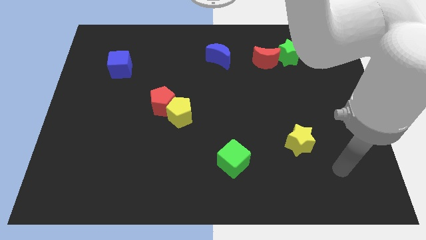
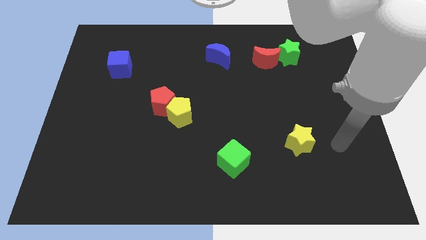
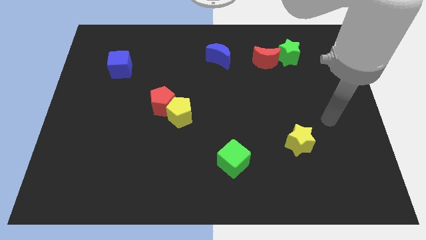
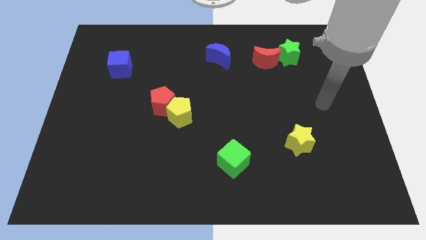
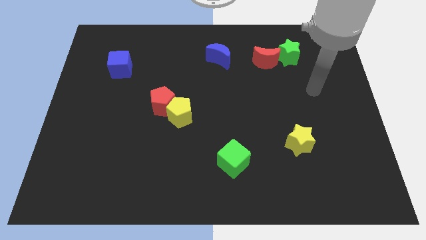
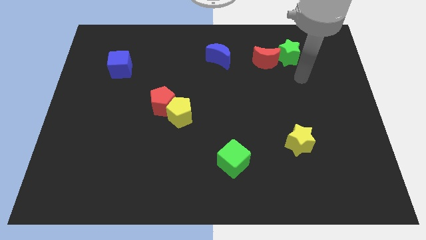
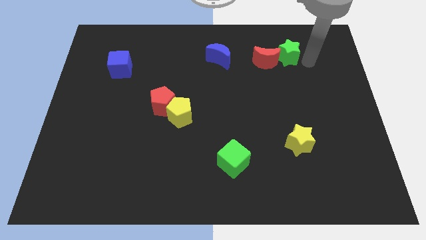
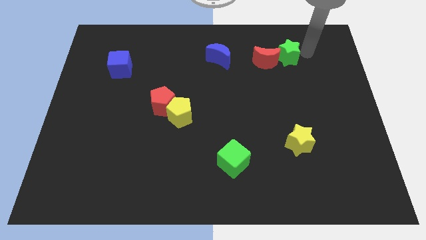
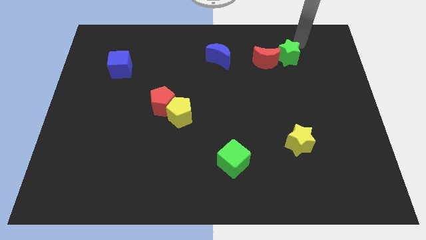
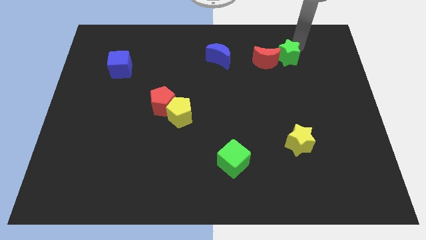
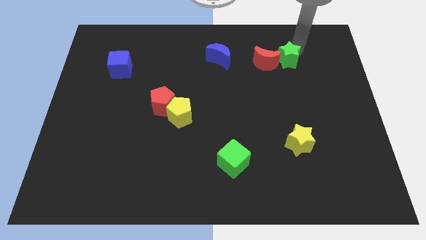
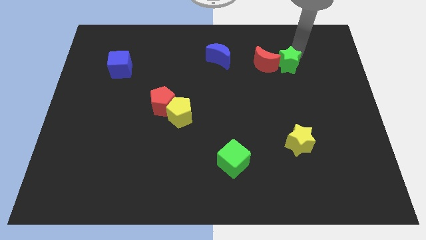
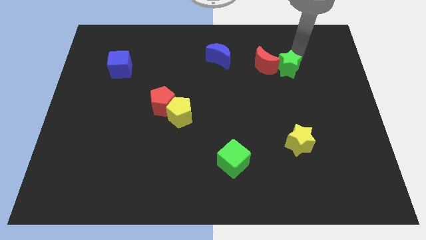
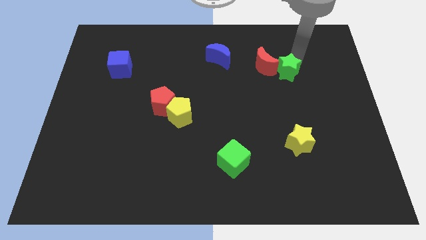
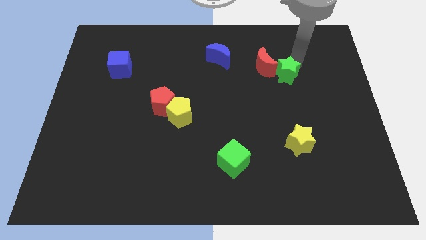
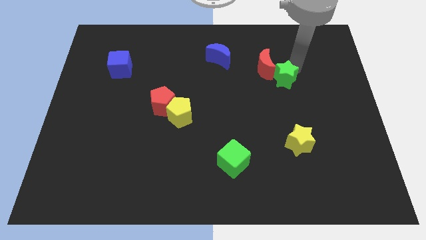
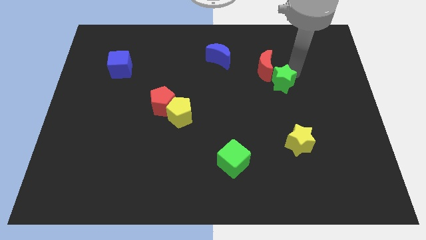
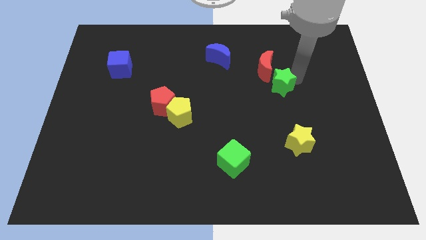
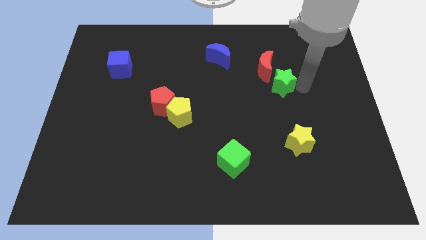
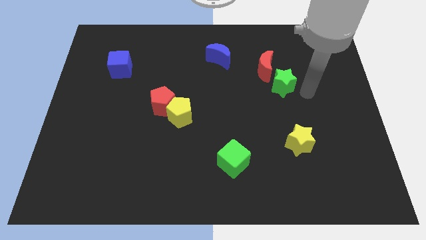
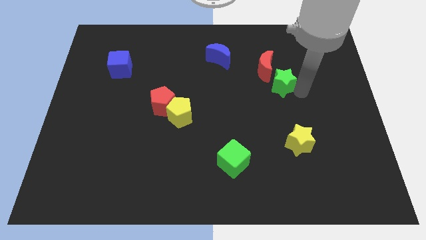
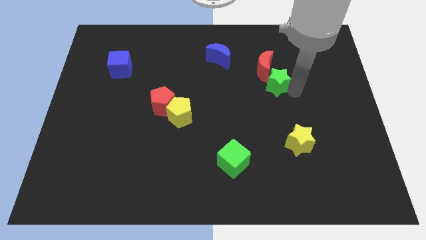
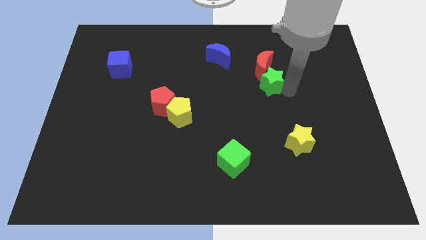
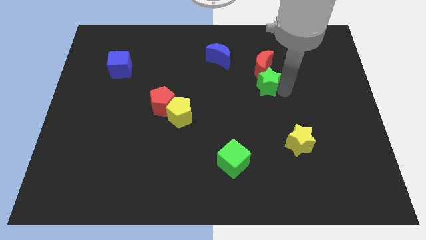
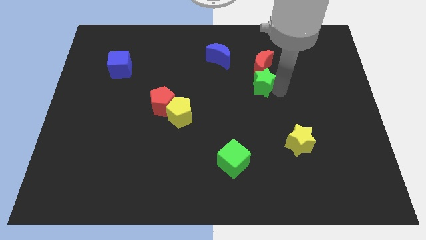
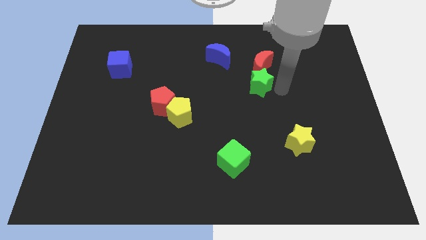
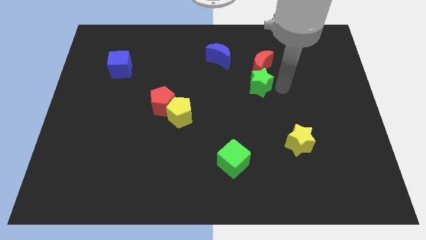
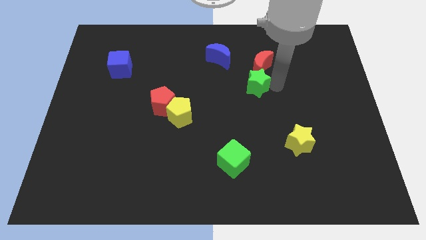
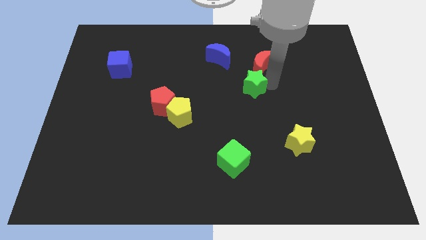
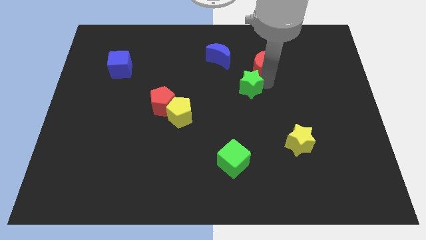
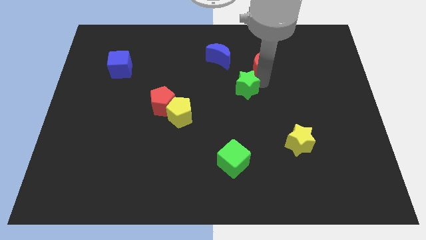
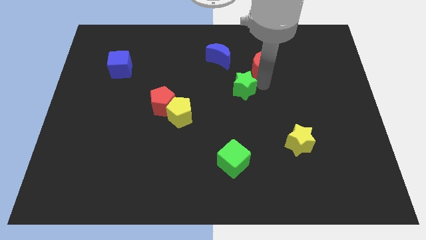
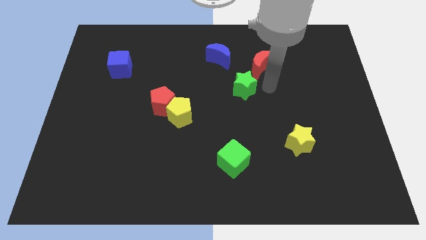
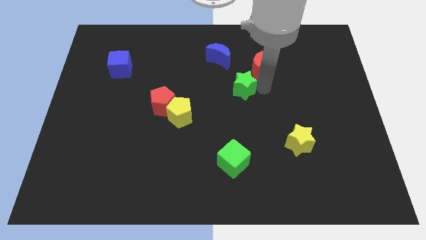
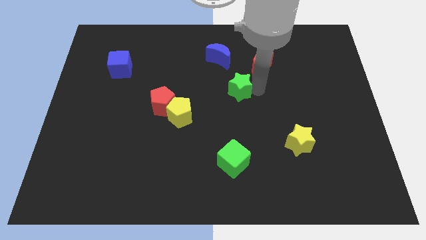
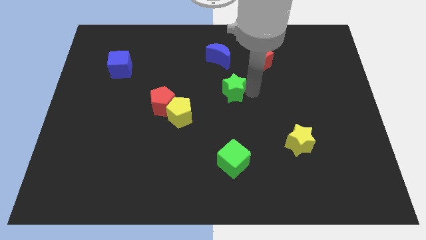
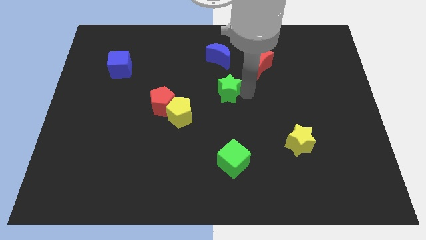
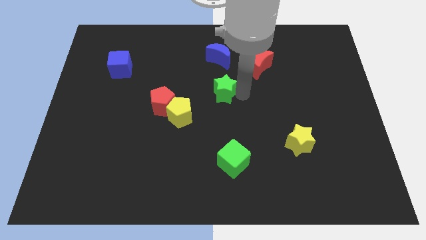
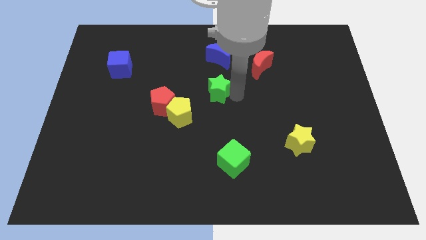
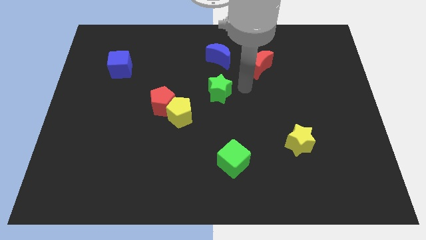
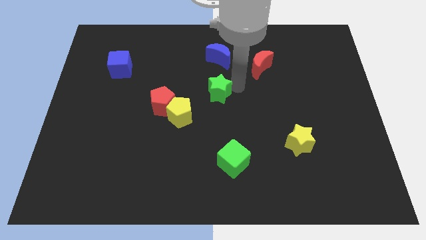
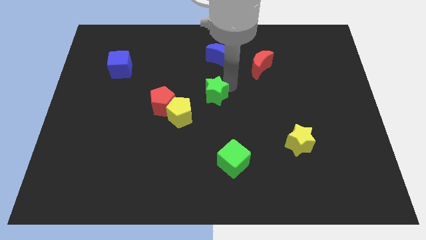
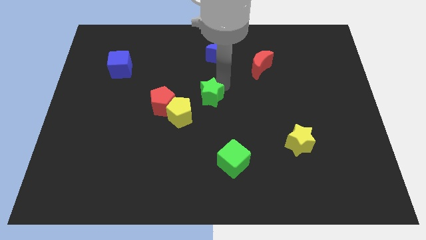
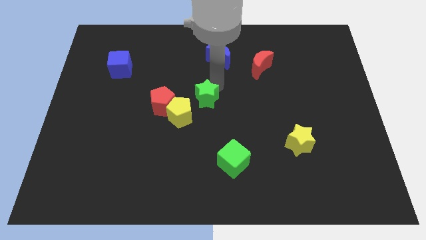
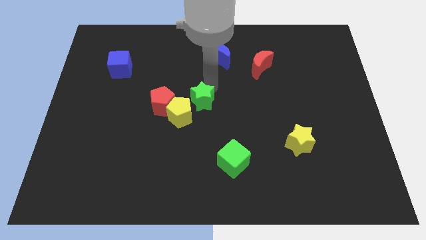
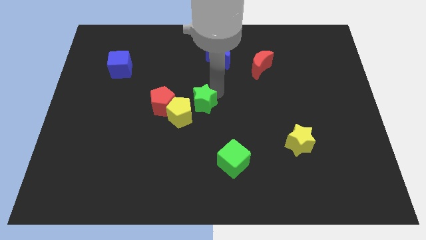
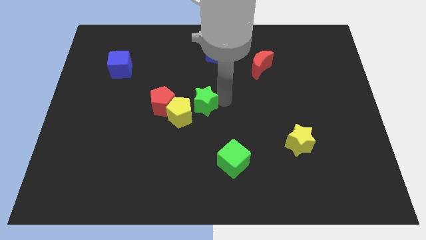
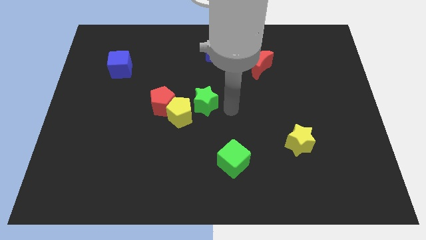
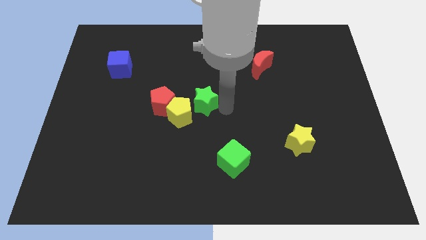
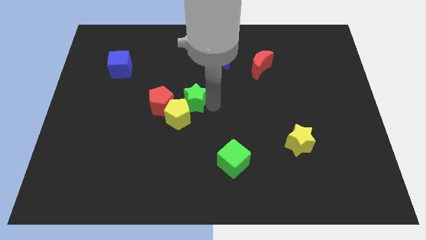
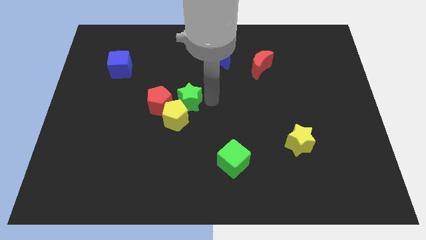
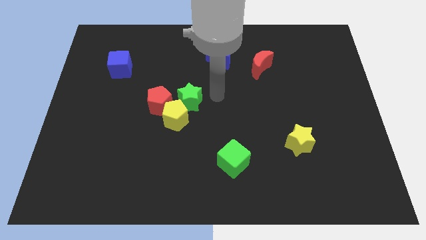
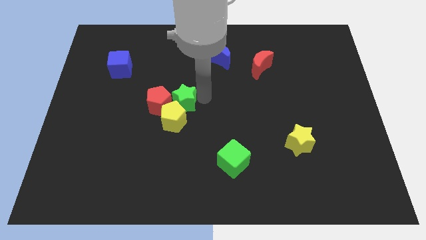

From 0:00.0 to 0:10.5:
put the green star towards the red pentagon

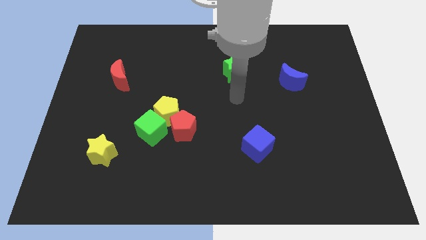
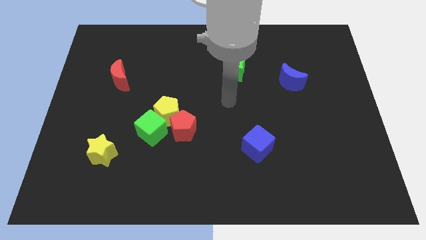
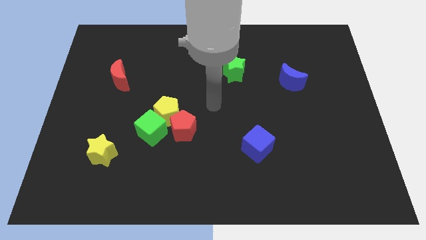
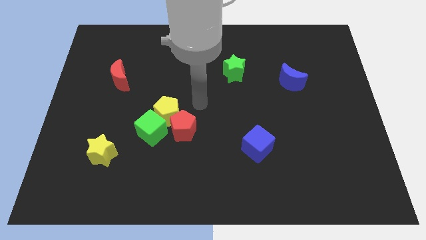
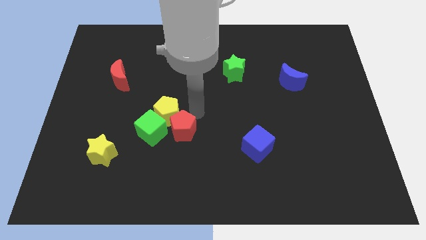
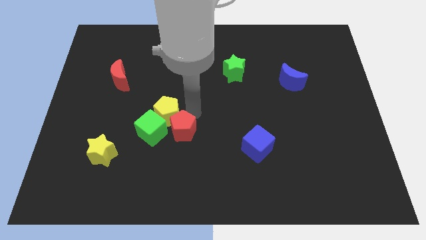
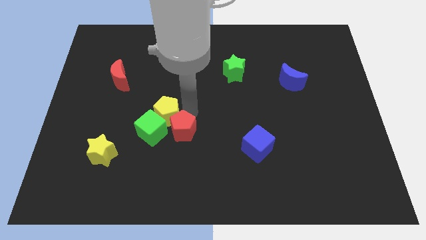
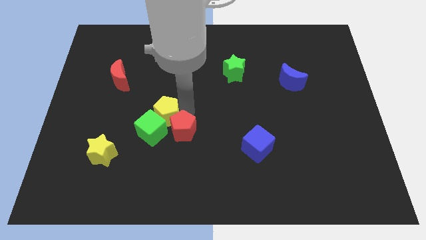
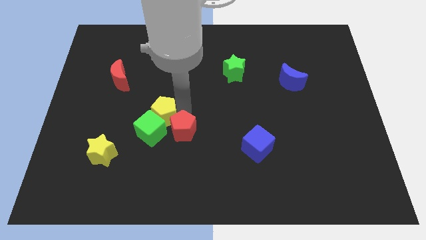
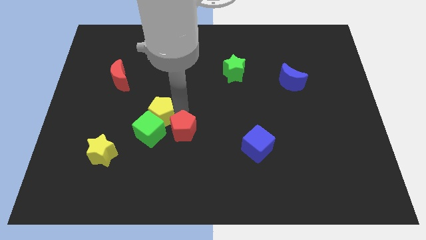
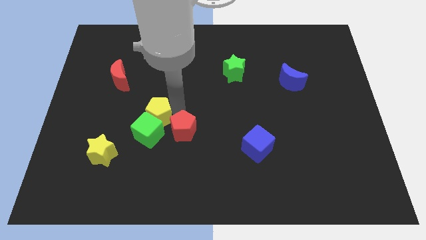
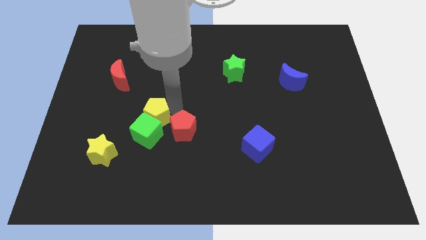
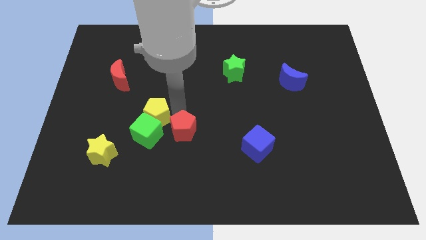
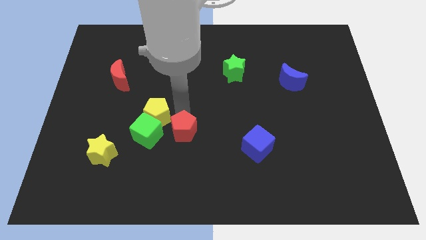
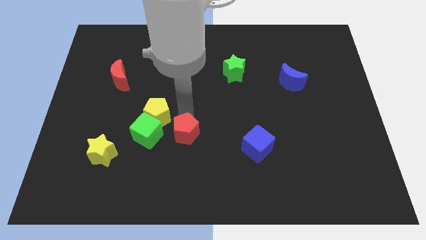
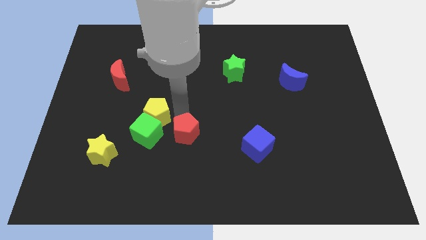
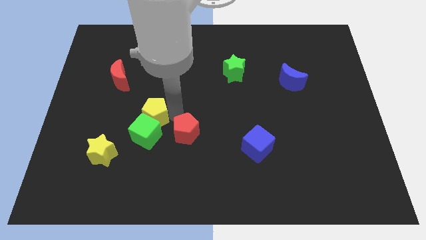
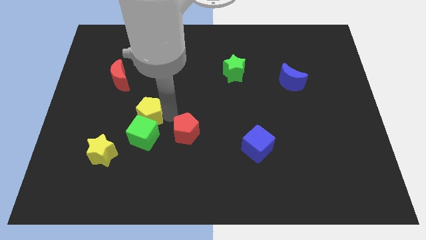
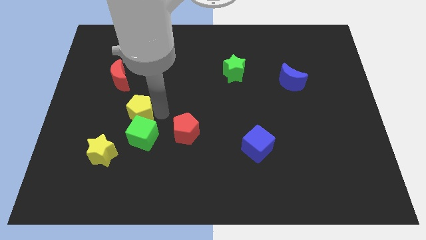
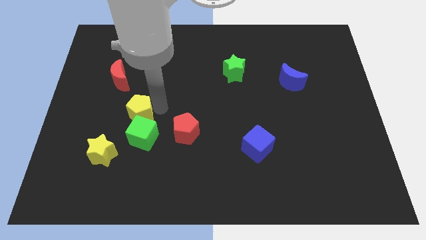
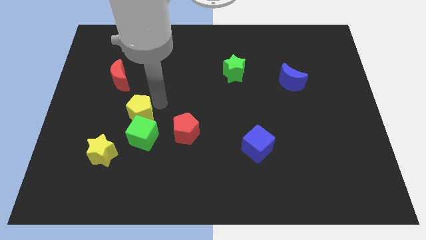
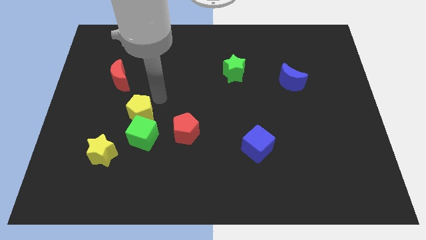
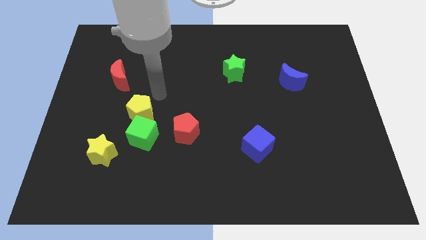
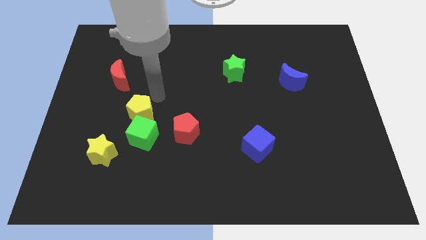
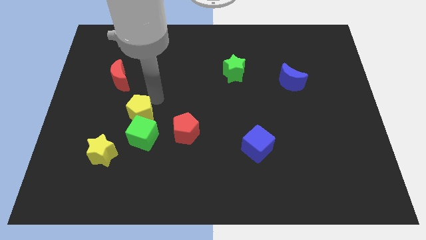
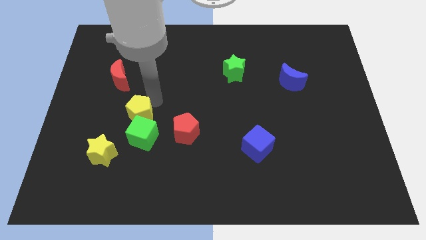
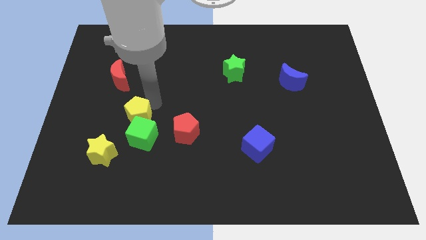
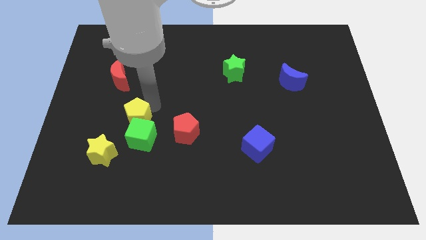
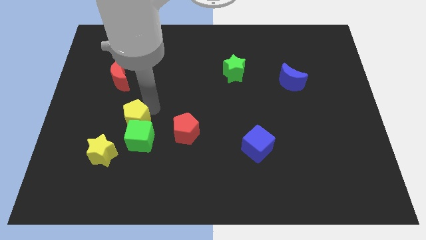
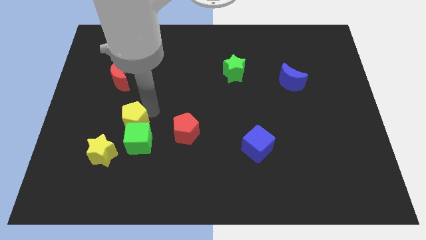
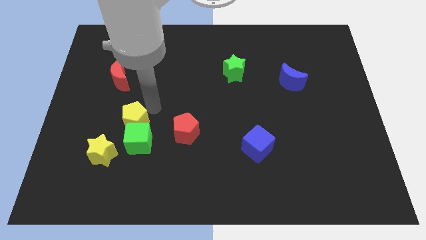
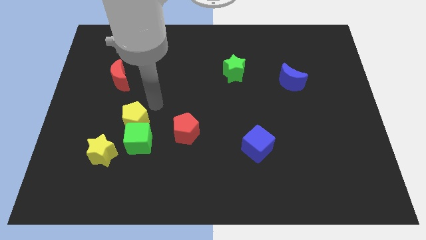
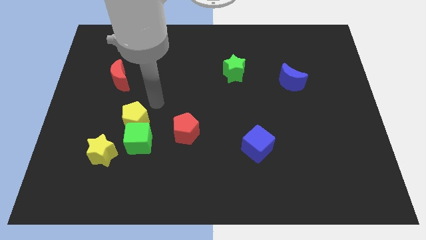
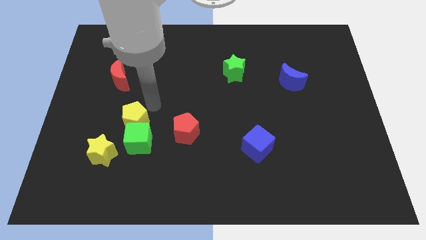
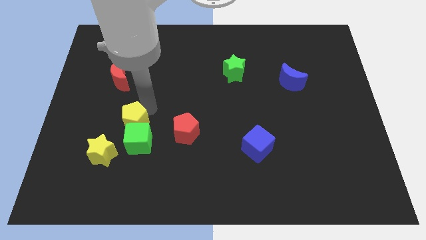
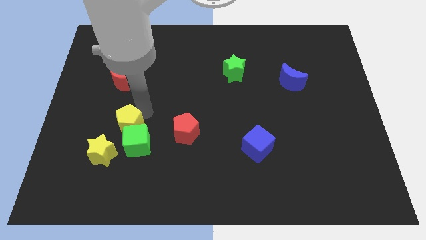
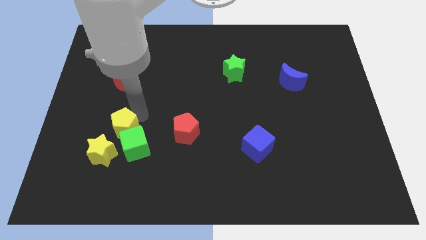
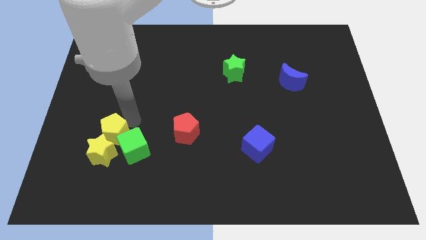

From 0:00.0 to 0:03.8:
slide the yellow pentagon close to the yellow star
